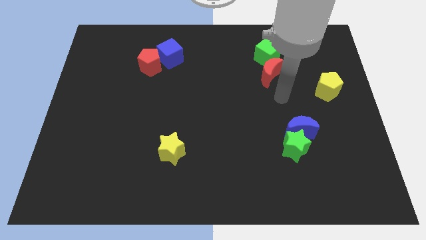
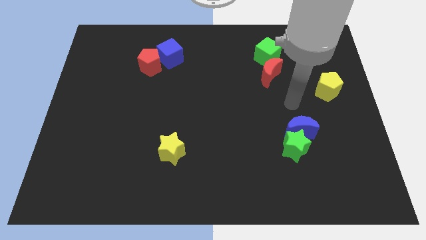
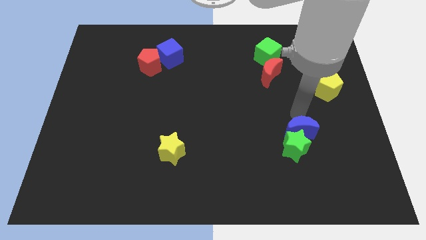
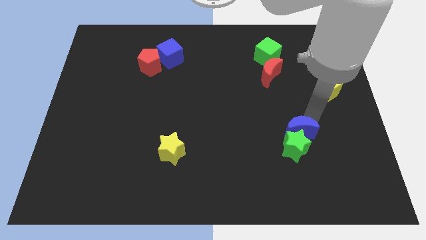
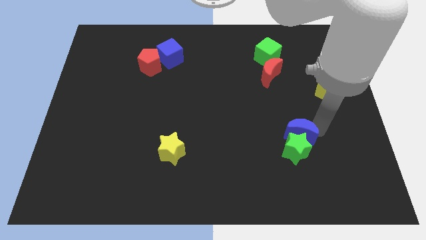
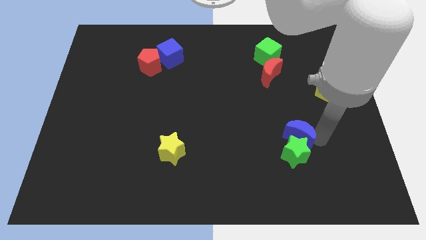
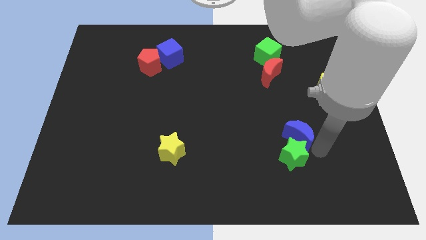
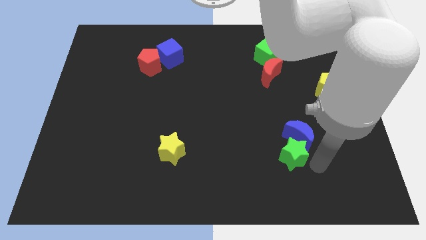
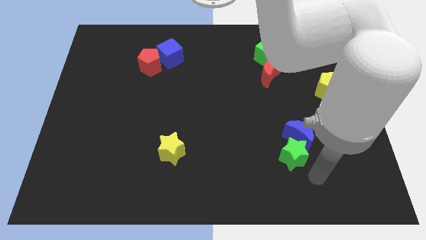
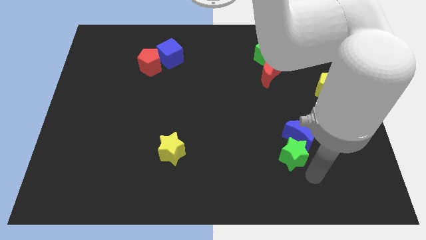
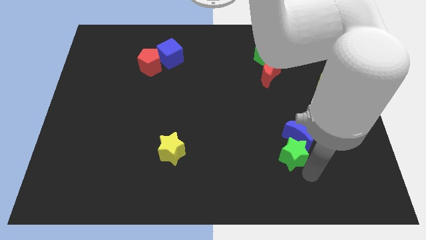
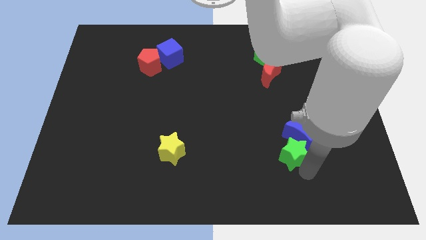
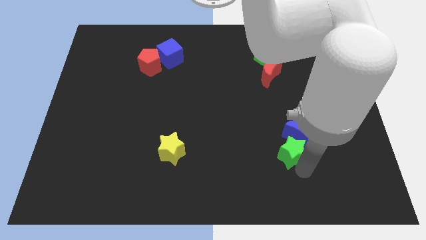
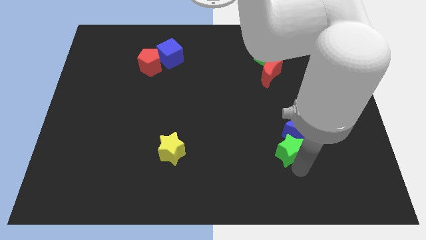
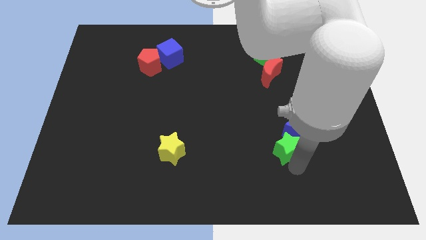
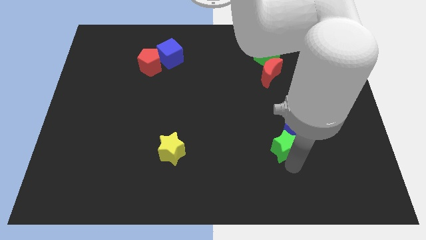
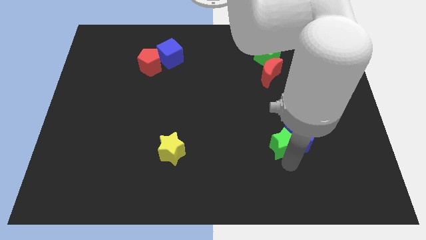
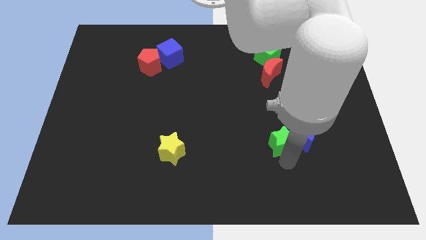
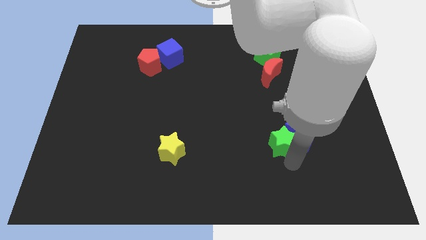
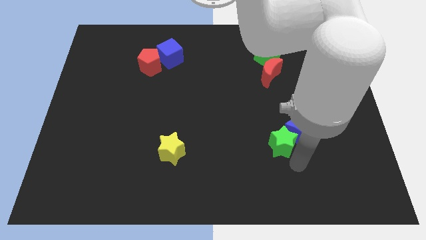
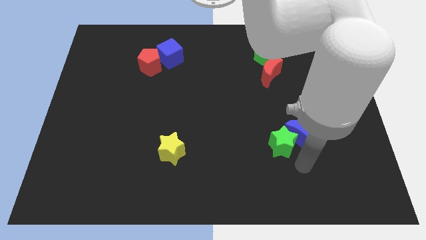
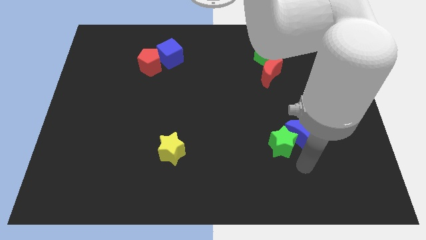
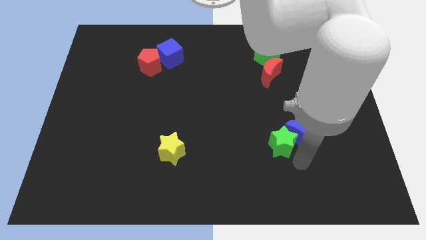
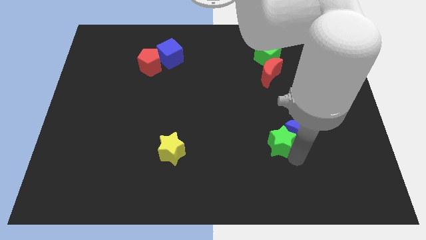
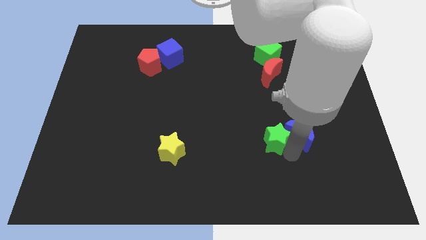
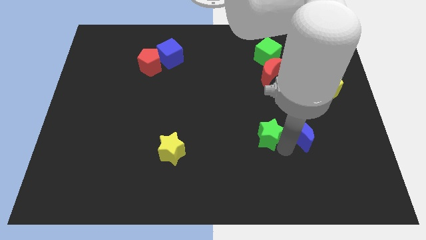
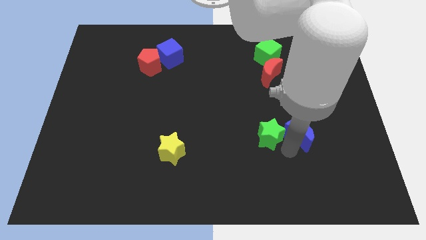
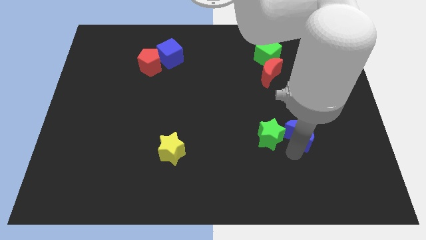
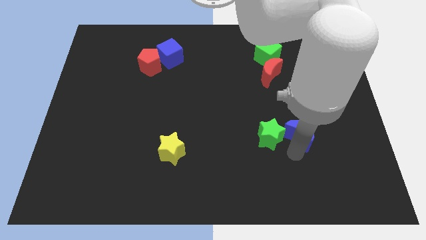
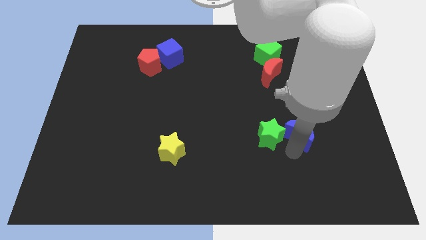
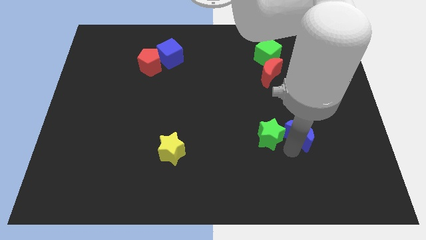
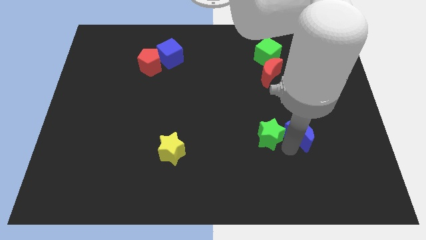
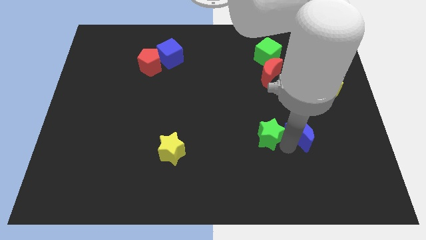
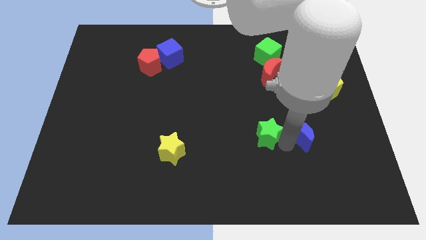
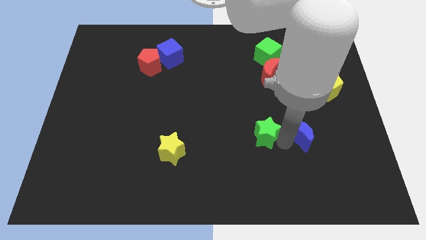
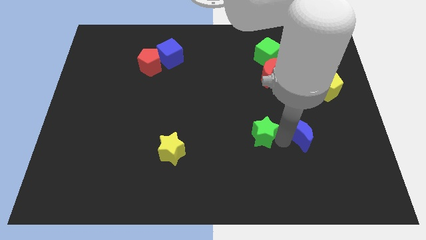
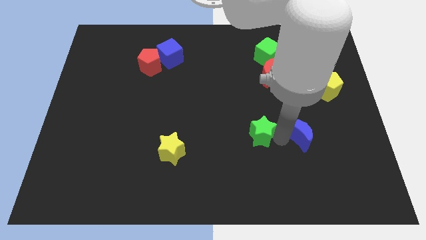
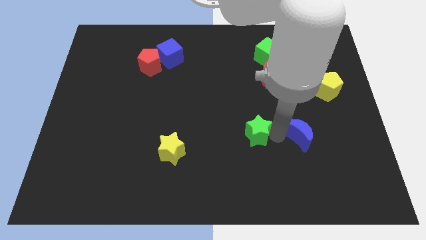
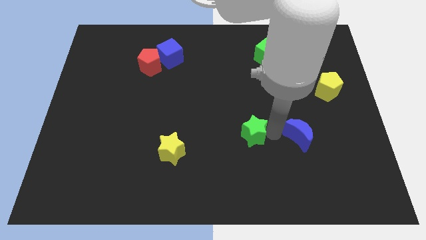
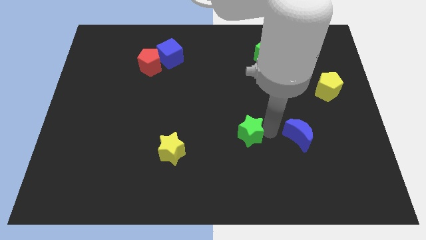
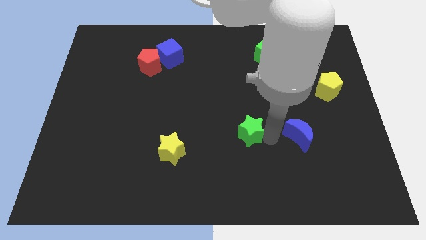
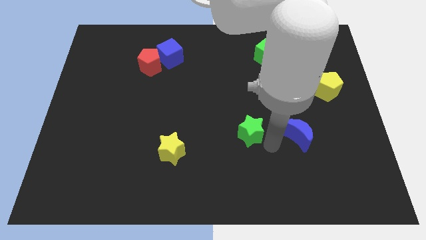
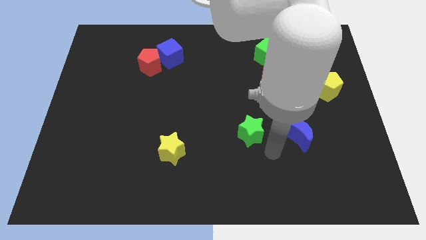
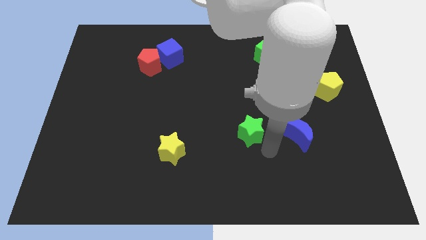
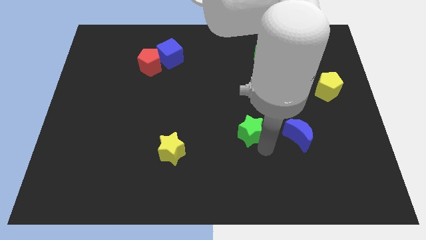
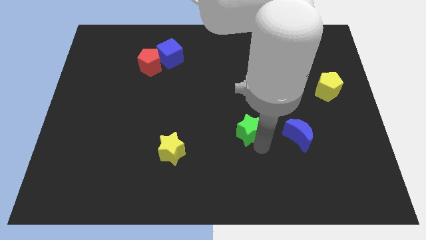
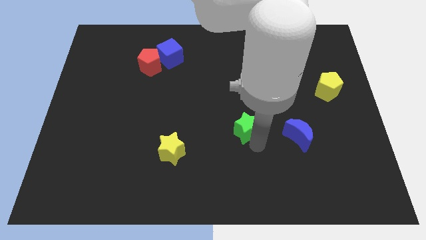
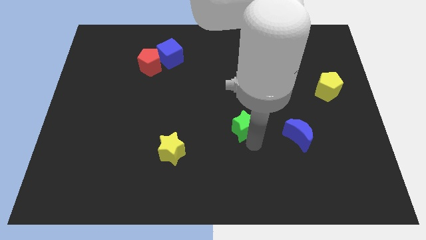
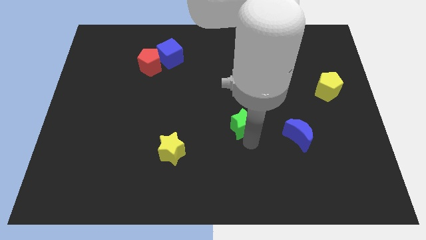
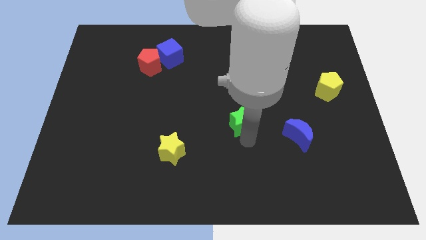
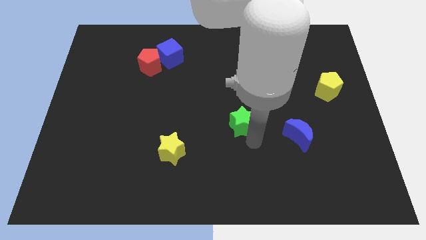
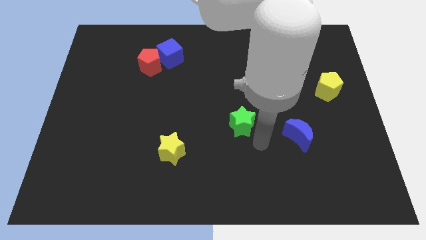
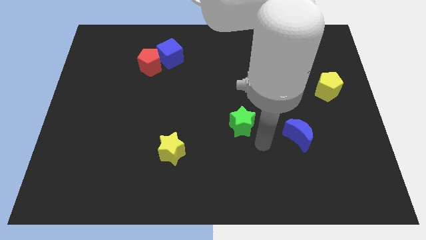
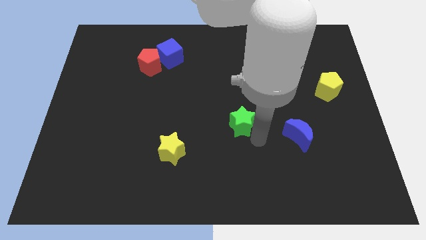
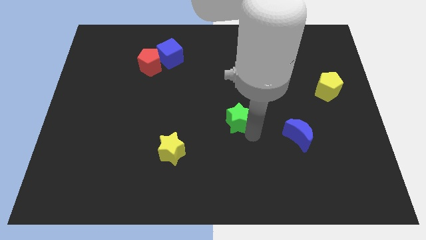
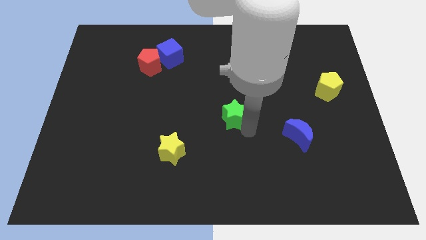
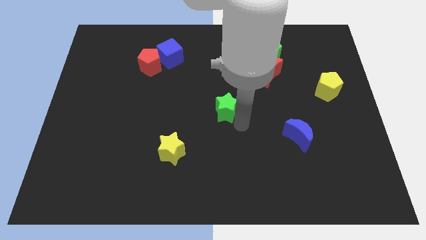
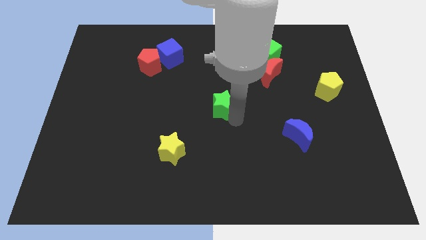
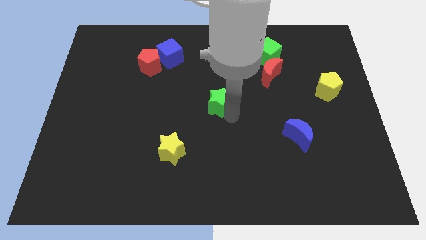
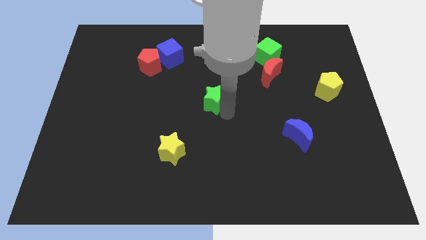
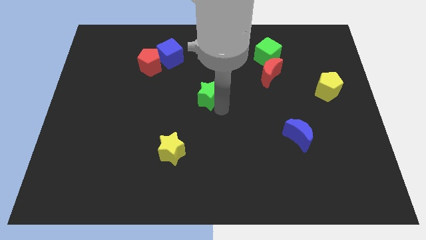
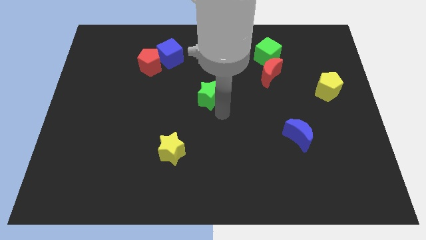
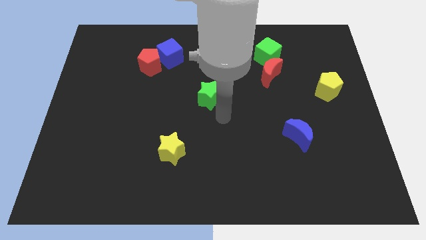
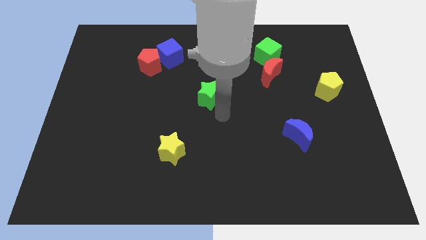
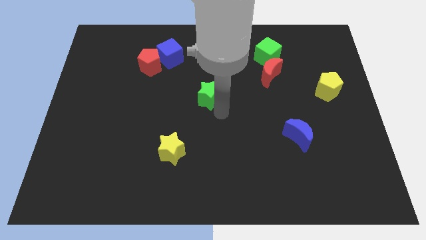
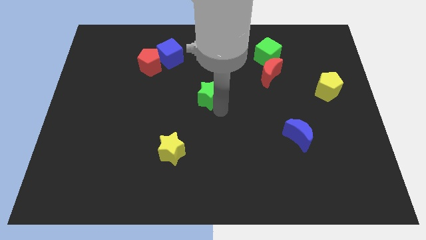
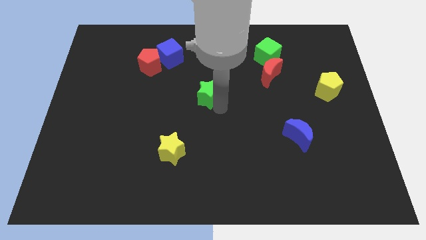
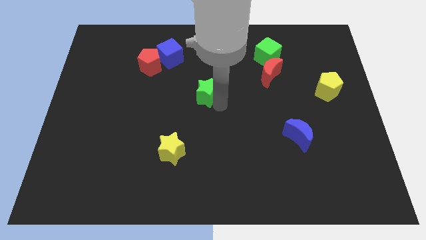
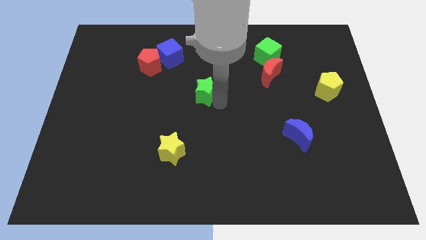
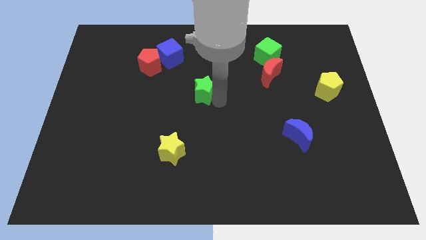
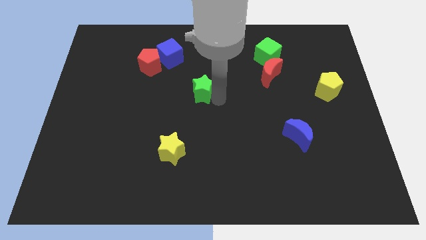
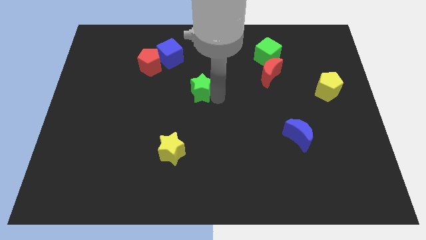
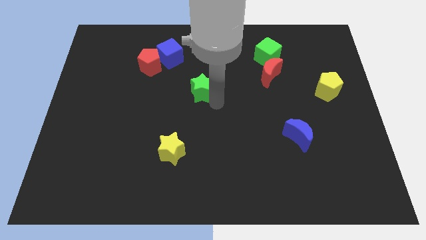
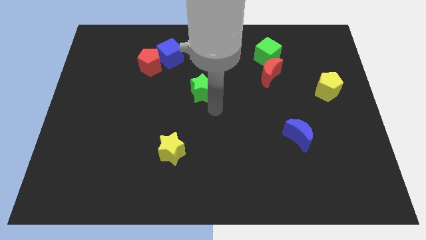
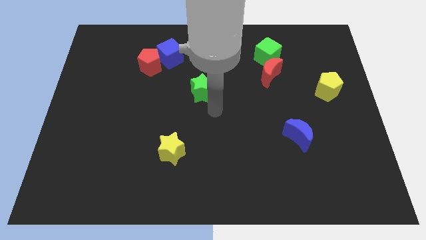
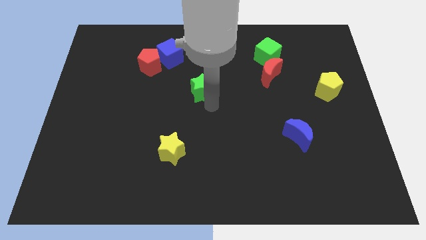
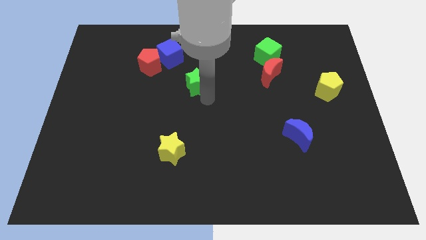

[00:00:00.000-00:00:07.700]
push the green star diagonally down and to the right of the blue cube
